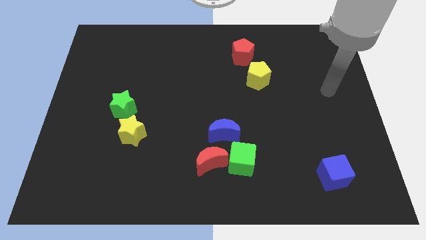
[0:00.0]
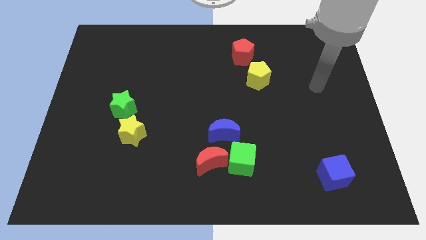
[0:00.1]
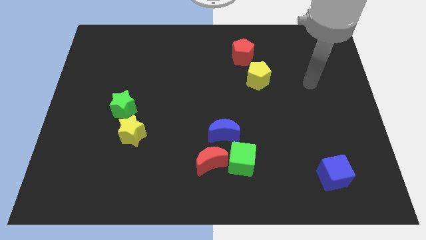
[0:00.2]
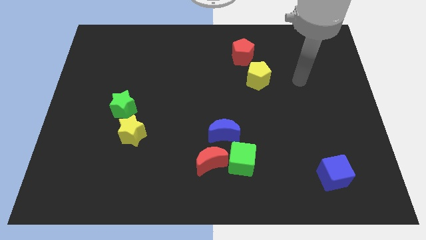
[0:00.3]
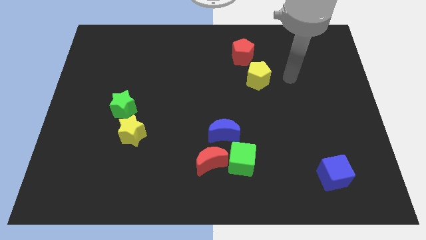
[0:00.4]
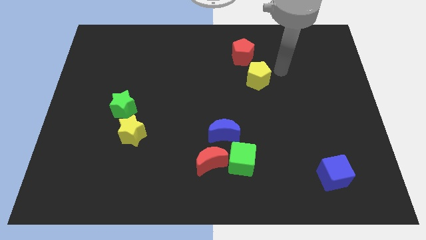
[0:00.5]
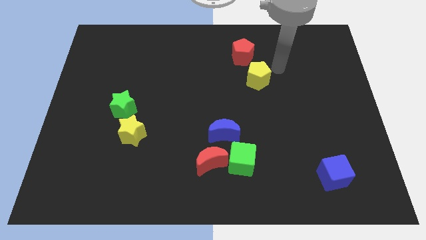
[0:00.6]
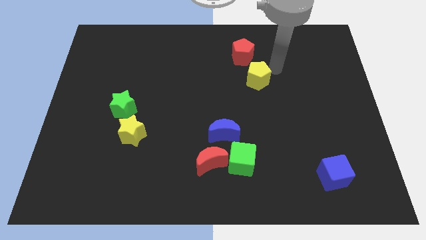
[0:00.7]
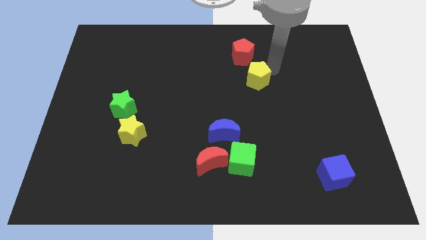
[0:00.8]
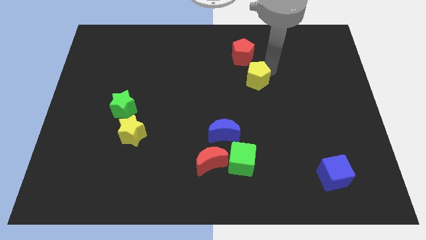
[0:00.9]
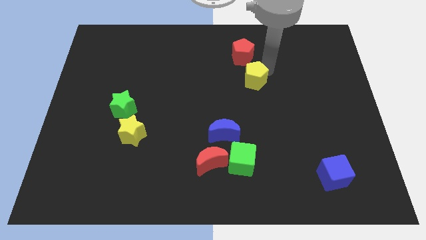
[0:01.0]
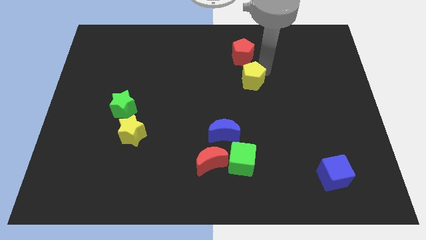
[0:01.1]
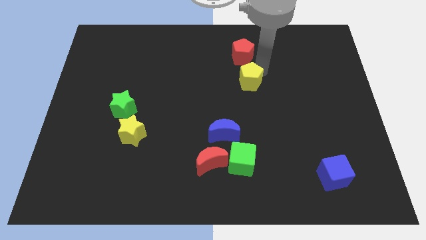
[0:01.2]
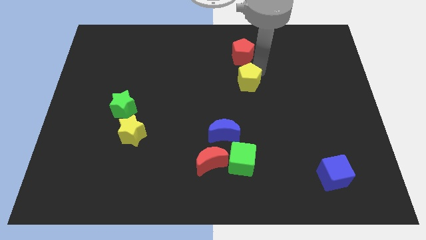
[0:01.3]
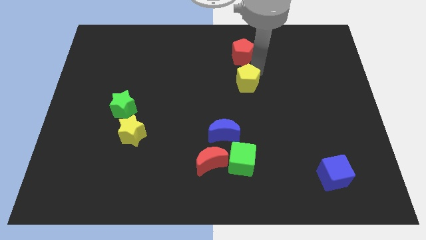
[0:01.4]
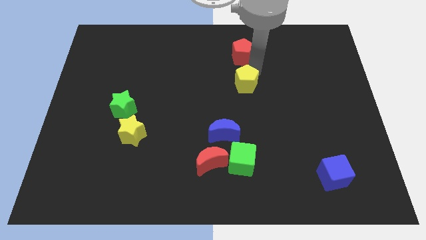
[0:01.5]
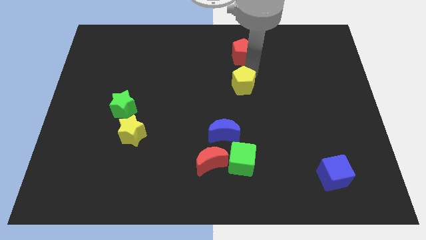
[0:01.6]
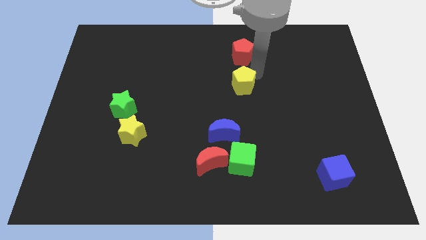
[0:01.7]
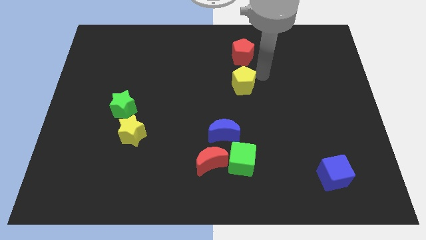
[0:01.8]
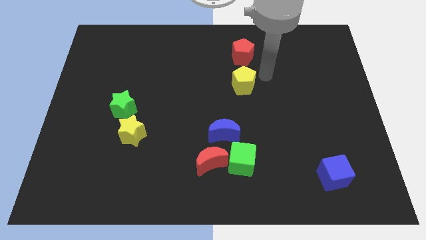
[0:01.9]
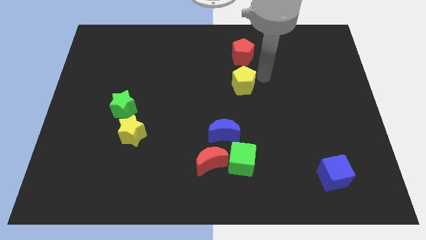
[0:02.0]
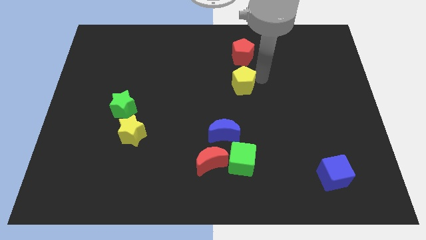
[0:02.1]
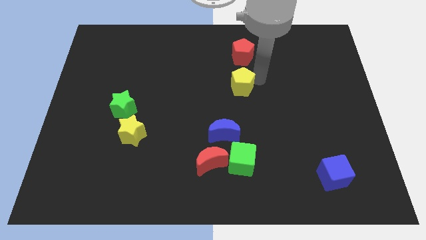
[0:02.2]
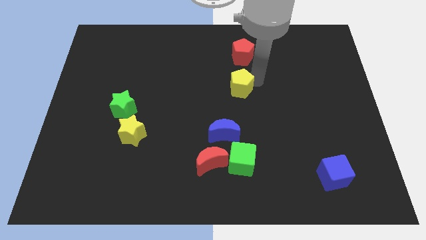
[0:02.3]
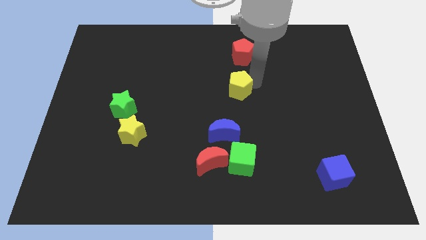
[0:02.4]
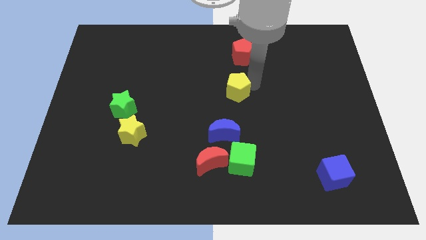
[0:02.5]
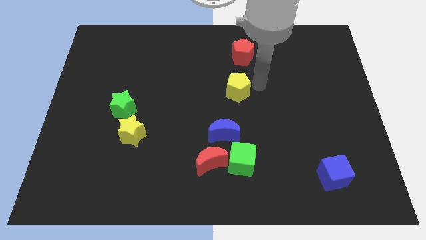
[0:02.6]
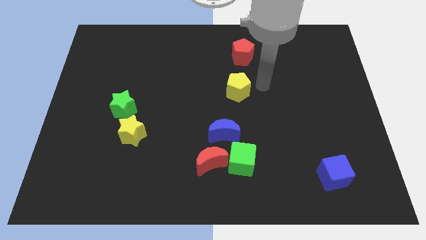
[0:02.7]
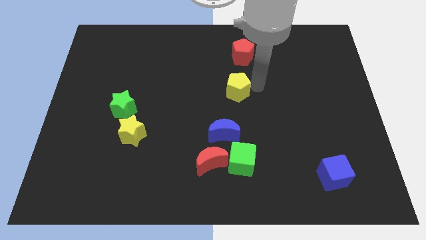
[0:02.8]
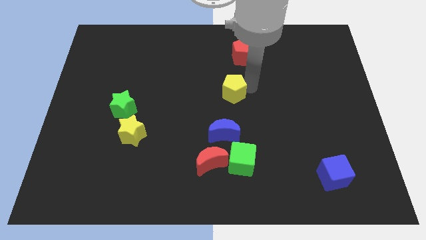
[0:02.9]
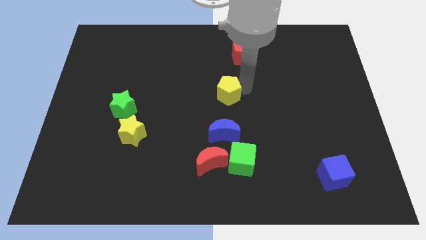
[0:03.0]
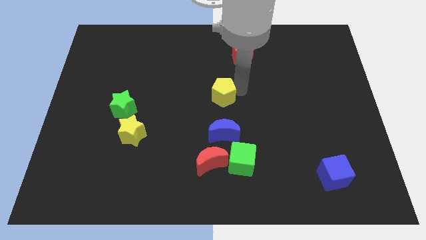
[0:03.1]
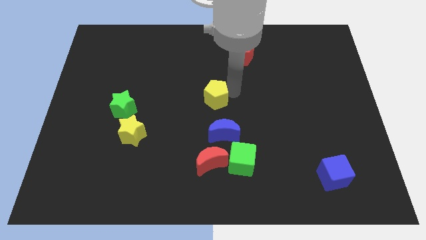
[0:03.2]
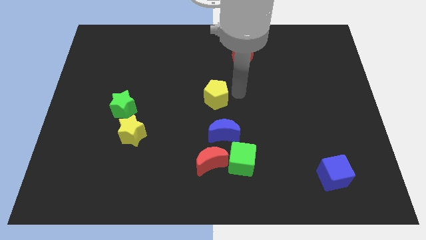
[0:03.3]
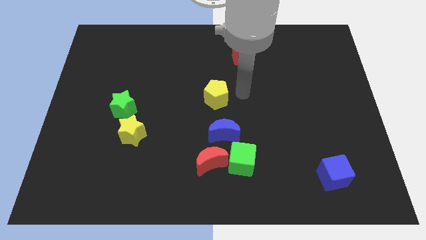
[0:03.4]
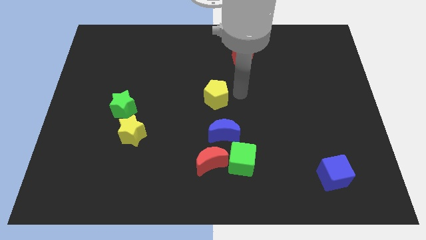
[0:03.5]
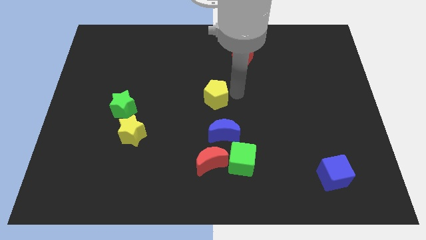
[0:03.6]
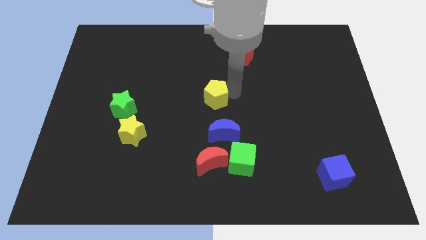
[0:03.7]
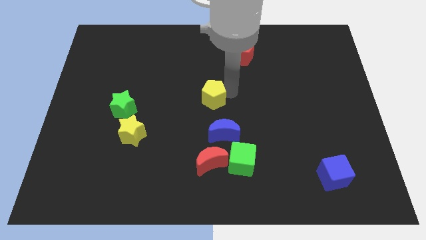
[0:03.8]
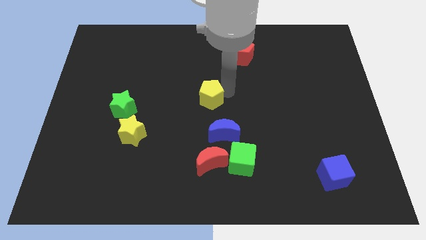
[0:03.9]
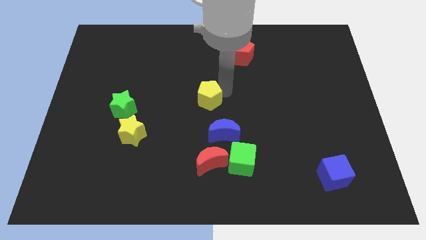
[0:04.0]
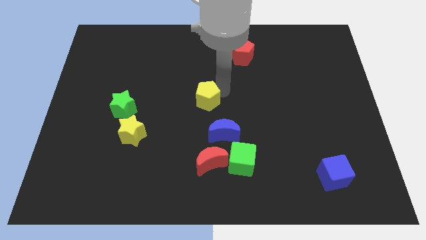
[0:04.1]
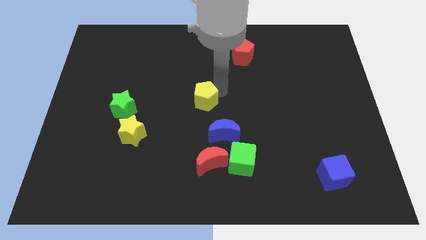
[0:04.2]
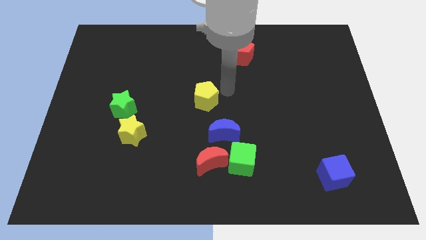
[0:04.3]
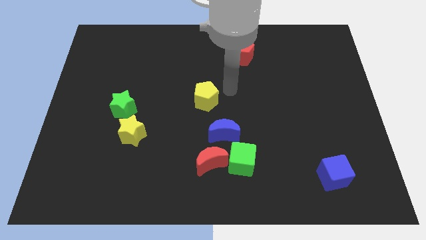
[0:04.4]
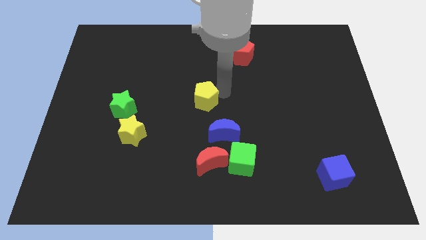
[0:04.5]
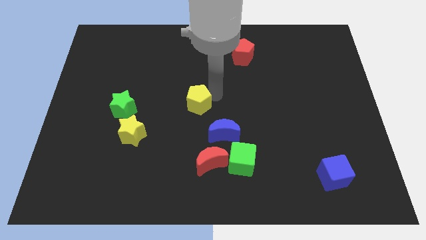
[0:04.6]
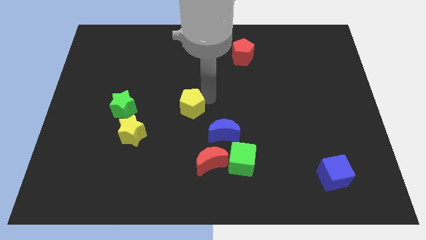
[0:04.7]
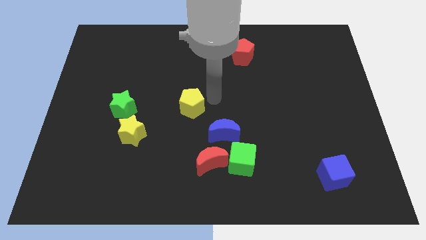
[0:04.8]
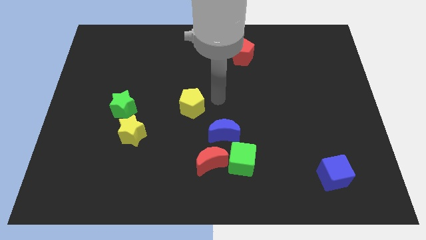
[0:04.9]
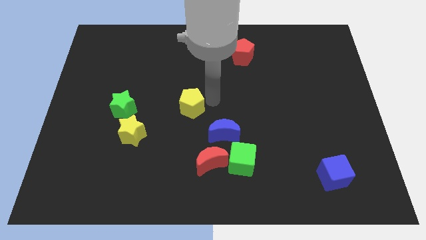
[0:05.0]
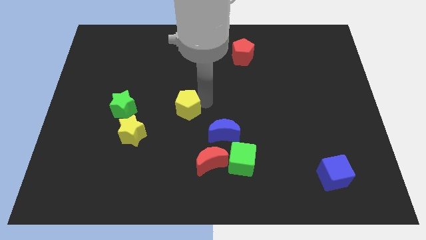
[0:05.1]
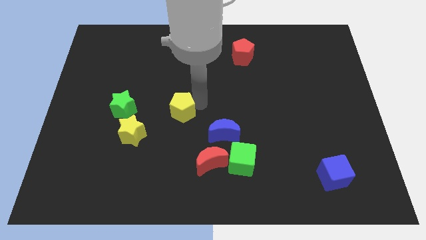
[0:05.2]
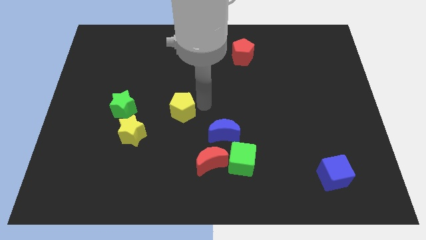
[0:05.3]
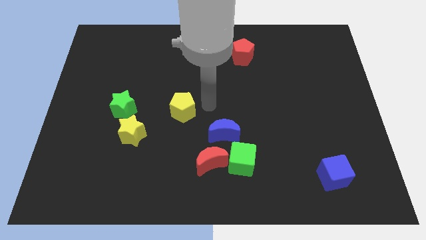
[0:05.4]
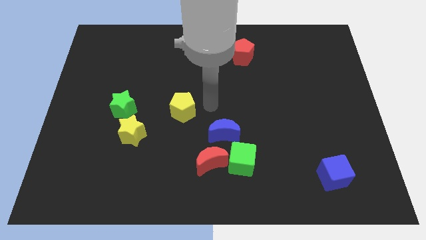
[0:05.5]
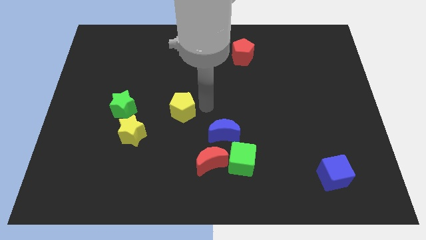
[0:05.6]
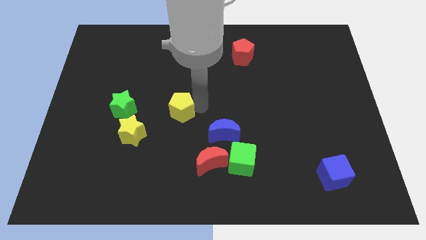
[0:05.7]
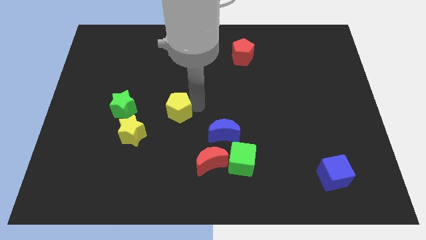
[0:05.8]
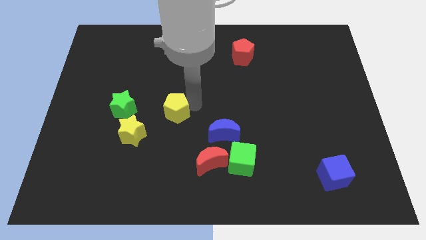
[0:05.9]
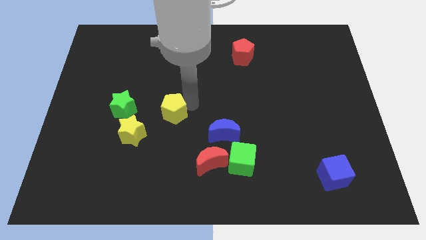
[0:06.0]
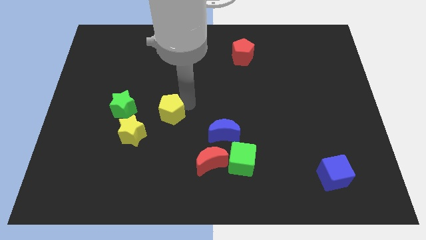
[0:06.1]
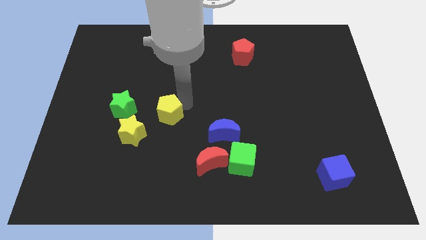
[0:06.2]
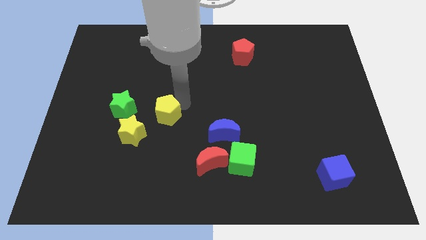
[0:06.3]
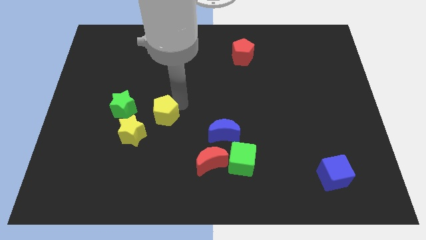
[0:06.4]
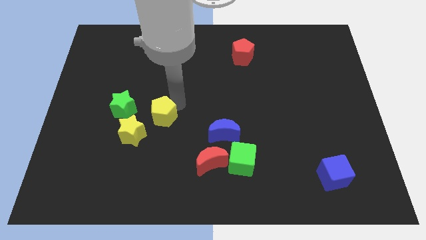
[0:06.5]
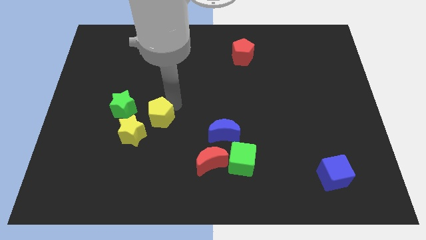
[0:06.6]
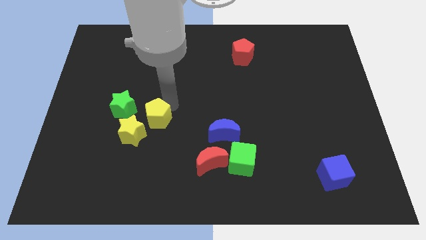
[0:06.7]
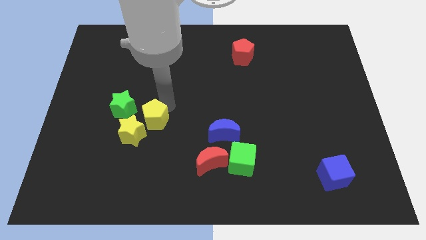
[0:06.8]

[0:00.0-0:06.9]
push the yellow pentagon towards the yellow star

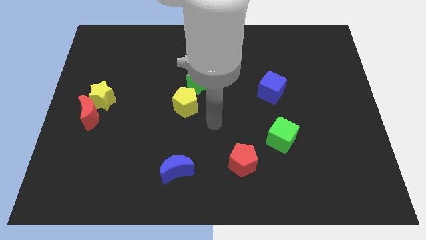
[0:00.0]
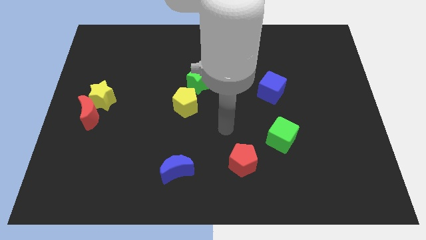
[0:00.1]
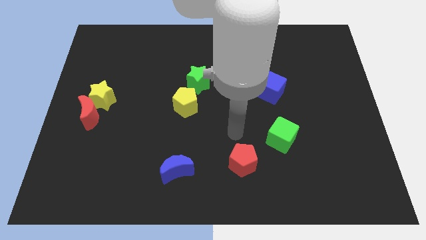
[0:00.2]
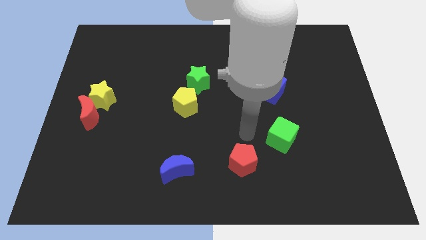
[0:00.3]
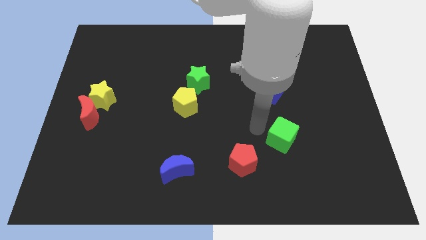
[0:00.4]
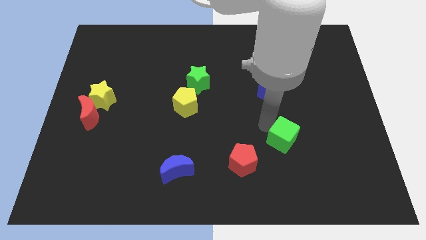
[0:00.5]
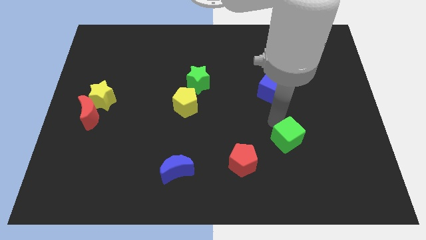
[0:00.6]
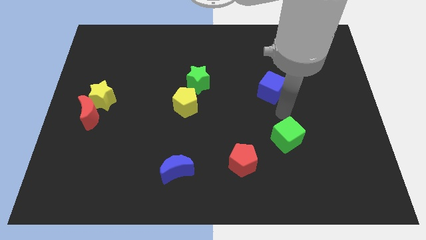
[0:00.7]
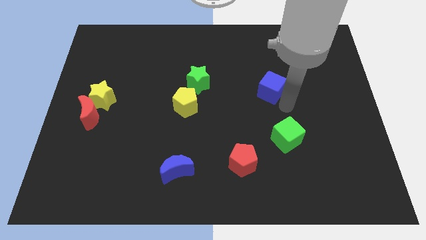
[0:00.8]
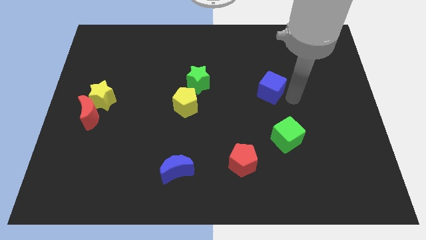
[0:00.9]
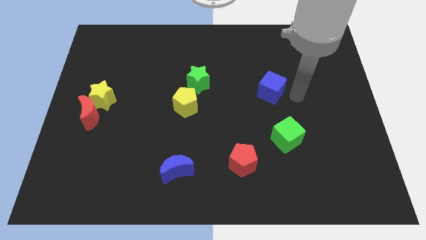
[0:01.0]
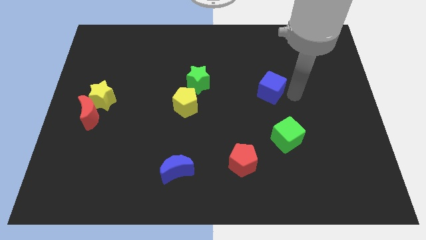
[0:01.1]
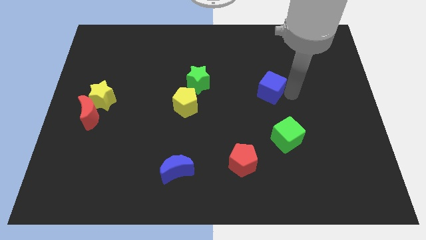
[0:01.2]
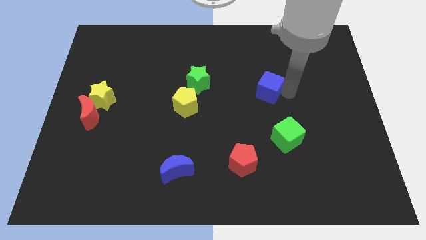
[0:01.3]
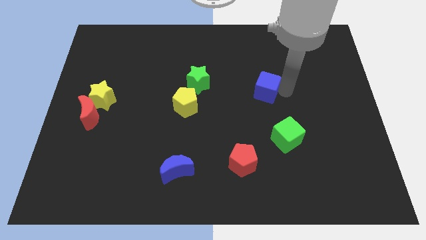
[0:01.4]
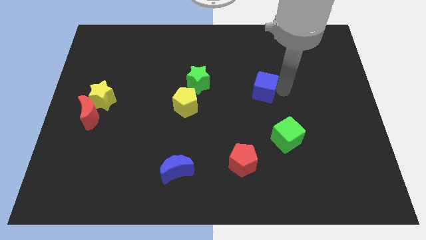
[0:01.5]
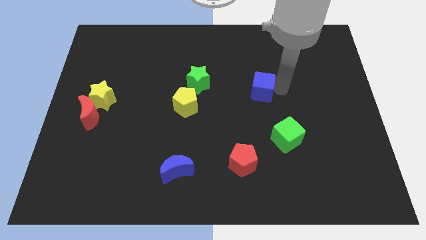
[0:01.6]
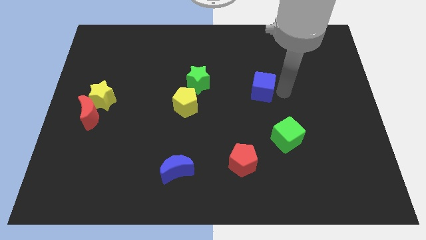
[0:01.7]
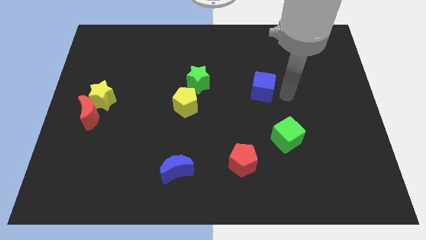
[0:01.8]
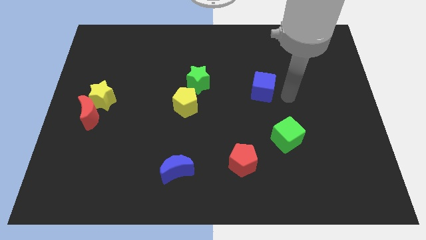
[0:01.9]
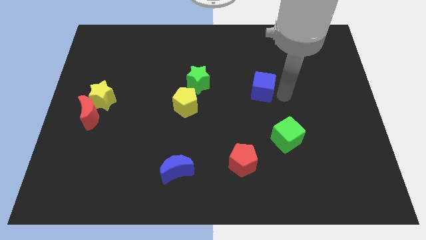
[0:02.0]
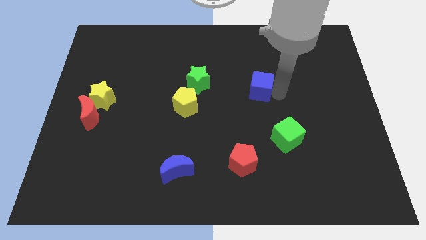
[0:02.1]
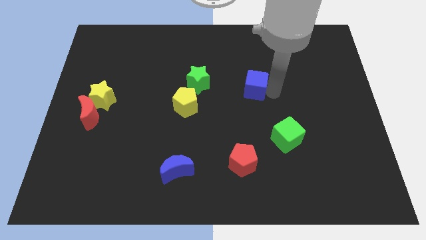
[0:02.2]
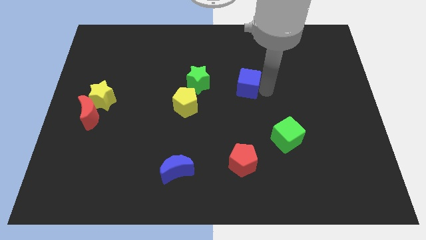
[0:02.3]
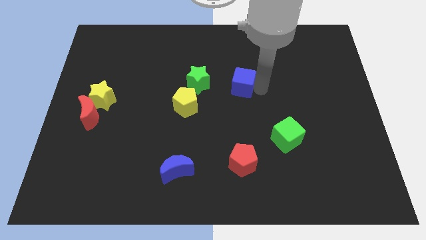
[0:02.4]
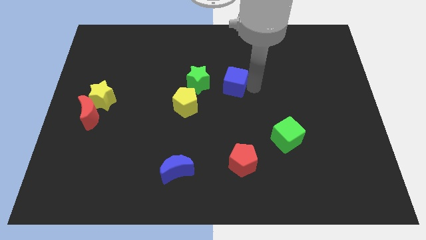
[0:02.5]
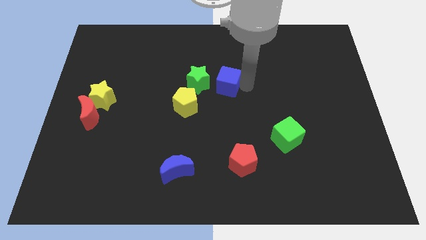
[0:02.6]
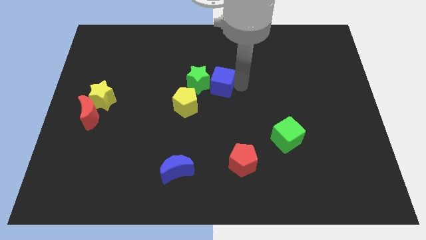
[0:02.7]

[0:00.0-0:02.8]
push the blue cube close to the green star
